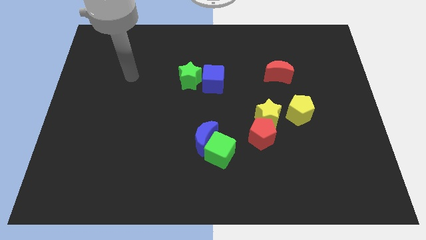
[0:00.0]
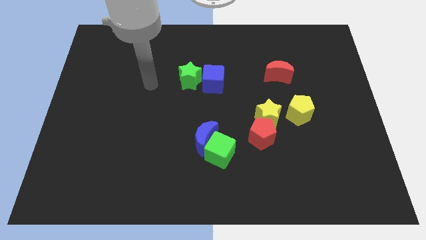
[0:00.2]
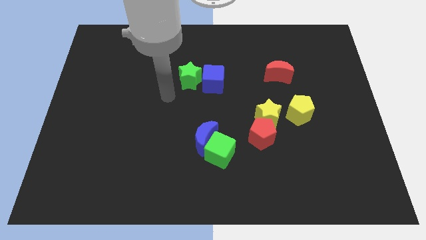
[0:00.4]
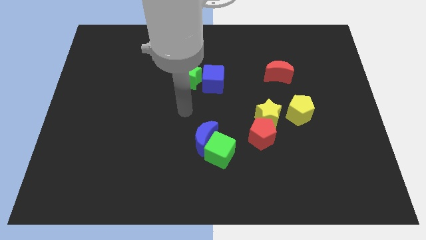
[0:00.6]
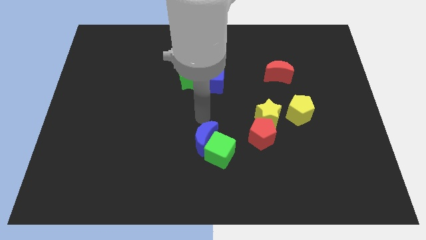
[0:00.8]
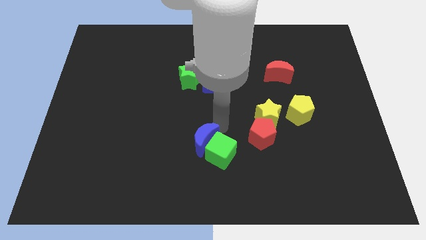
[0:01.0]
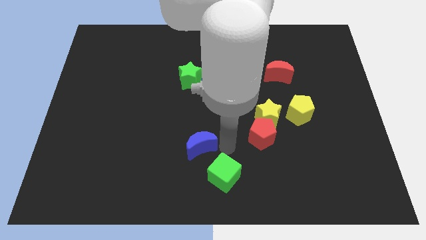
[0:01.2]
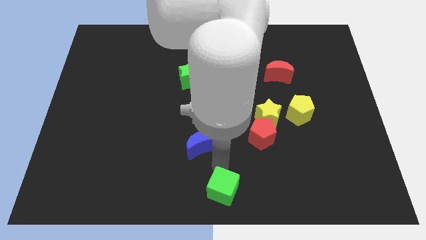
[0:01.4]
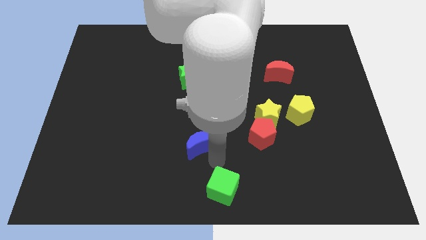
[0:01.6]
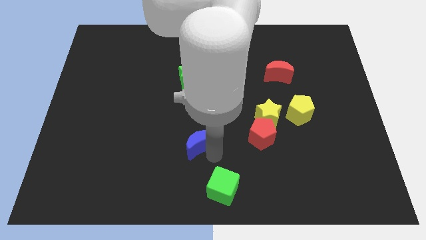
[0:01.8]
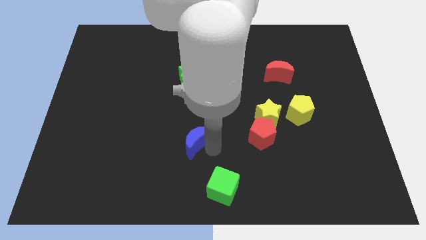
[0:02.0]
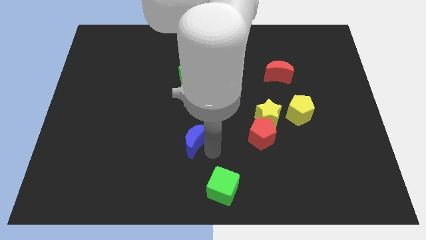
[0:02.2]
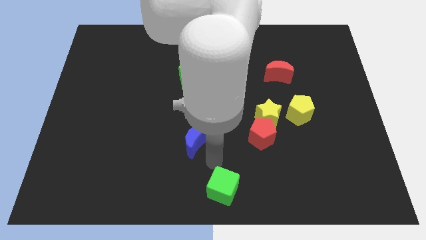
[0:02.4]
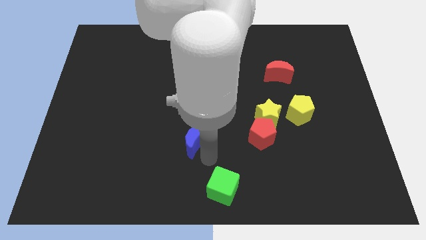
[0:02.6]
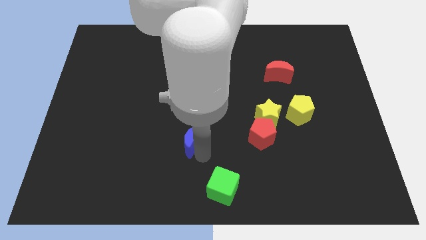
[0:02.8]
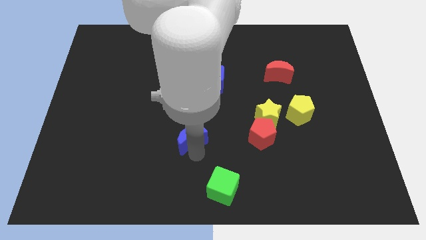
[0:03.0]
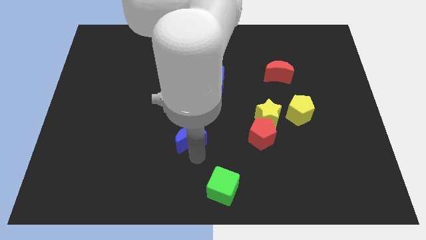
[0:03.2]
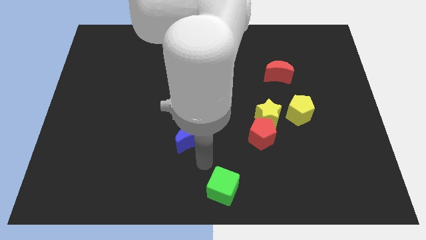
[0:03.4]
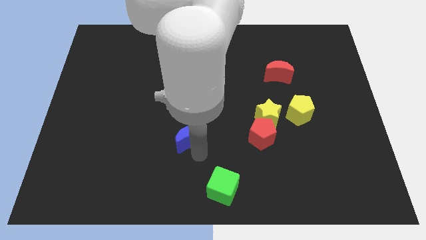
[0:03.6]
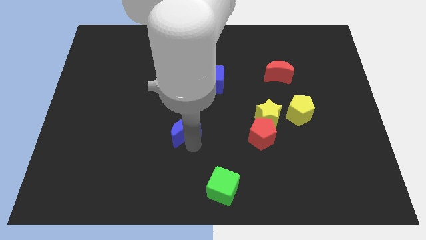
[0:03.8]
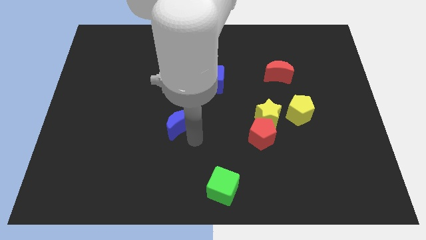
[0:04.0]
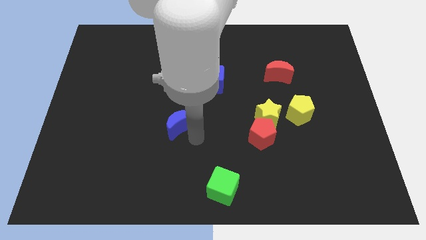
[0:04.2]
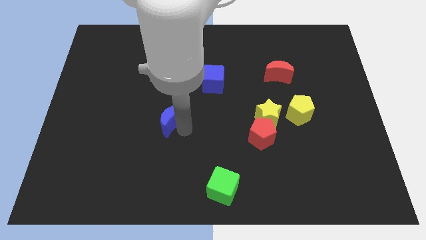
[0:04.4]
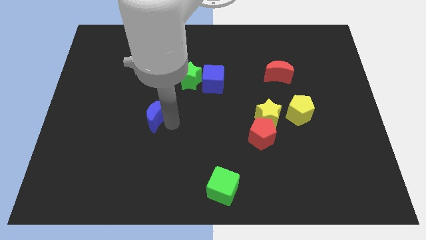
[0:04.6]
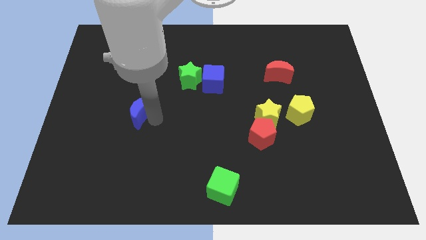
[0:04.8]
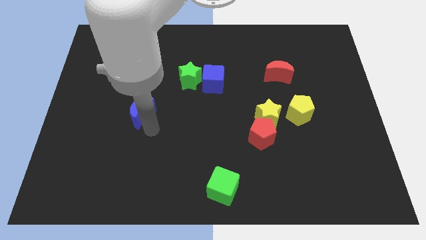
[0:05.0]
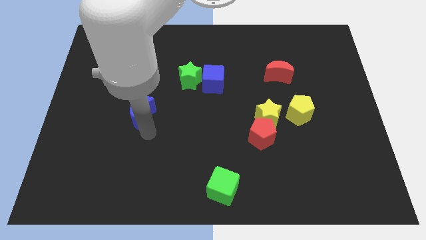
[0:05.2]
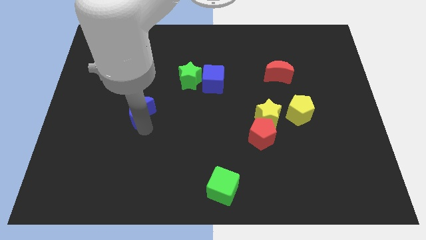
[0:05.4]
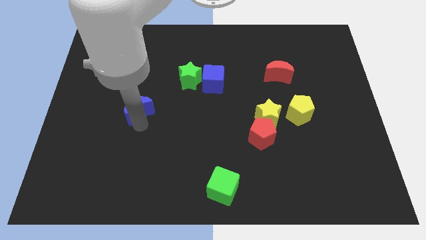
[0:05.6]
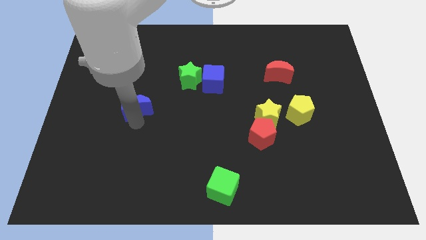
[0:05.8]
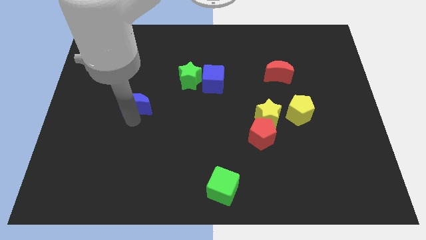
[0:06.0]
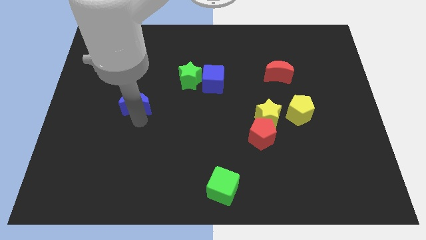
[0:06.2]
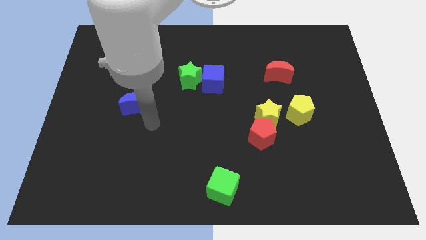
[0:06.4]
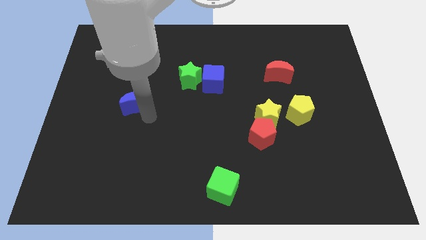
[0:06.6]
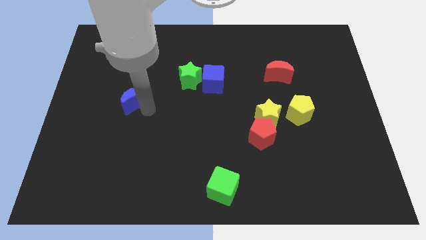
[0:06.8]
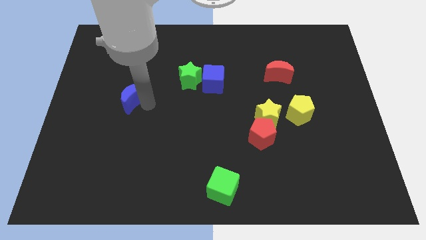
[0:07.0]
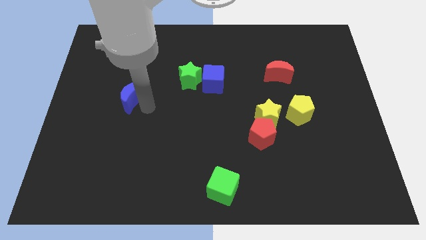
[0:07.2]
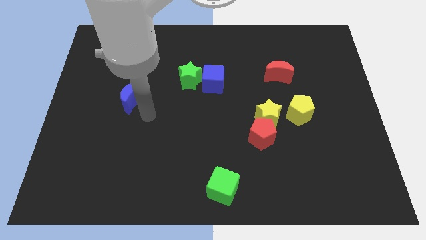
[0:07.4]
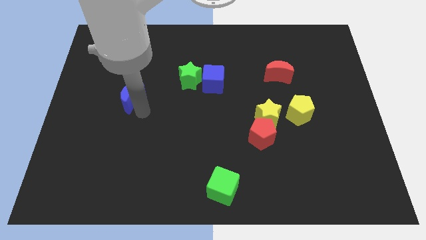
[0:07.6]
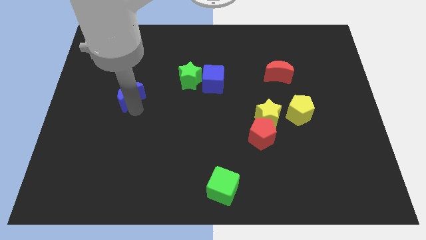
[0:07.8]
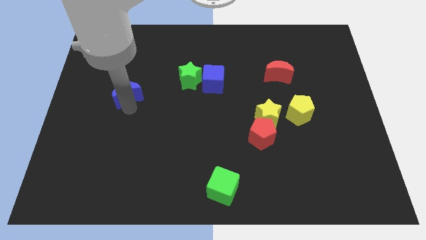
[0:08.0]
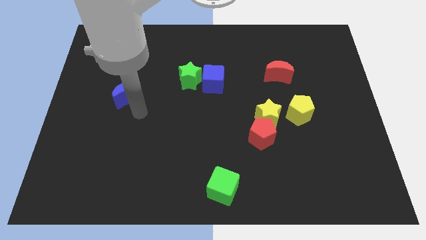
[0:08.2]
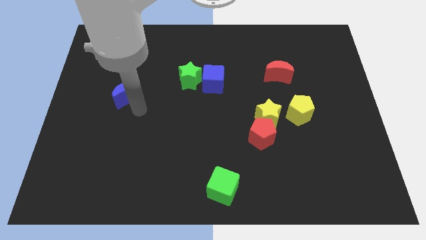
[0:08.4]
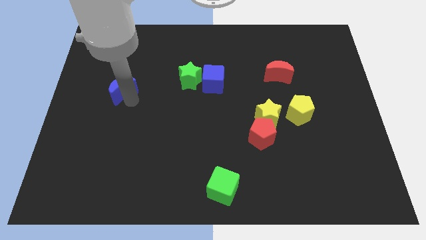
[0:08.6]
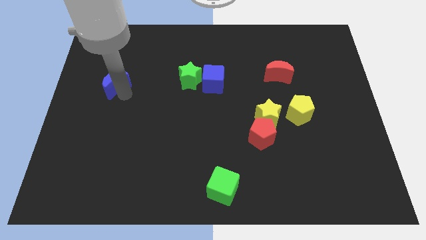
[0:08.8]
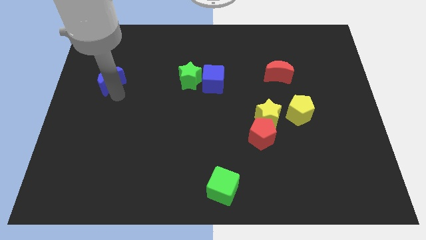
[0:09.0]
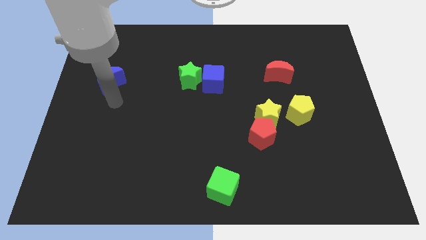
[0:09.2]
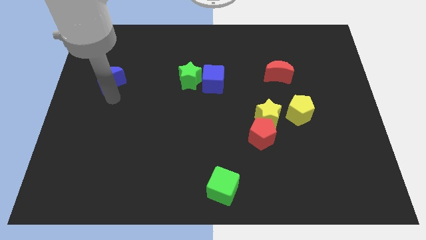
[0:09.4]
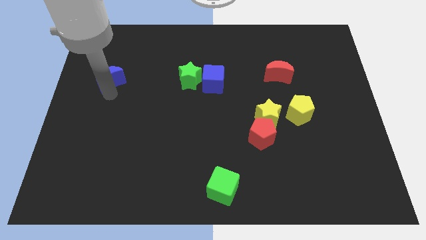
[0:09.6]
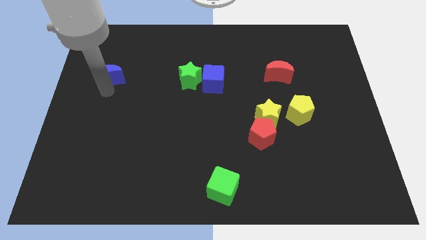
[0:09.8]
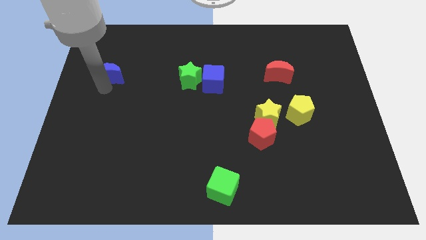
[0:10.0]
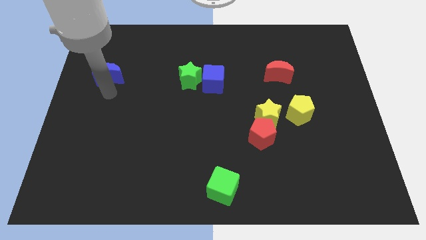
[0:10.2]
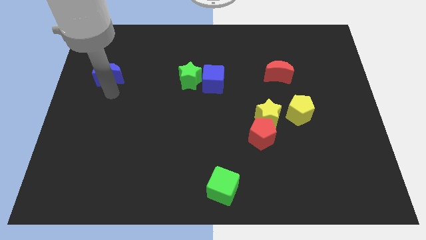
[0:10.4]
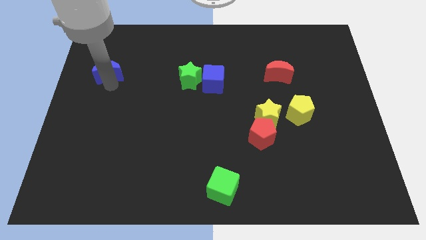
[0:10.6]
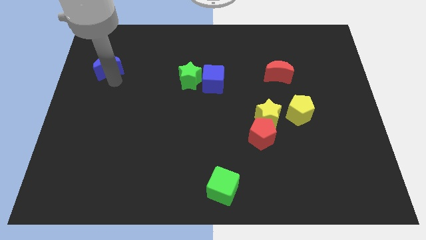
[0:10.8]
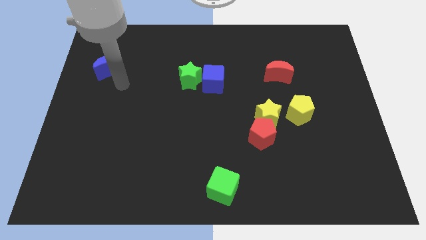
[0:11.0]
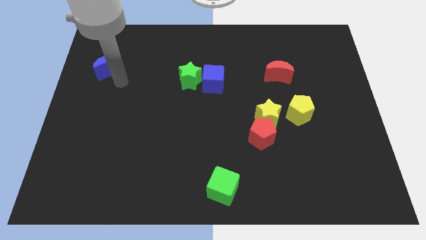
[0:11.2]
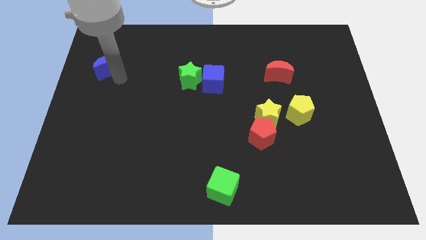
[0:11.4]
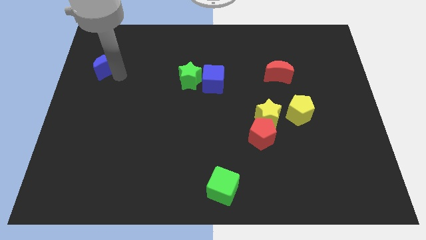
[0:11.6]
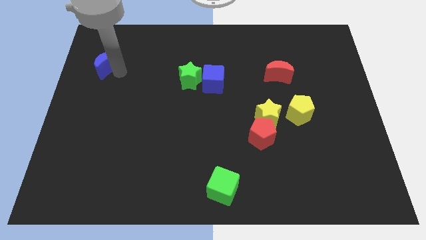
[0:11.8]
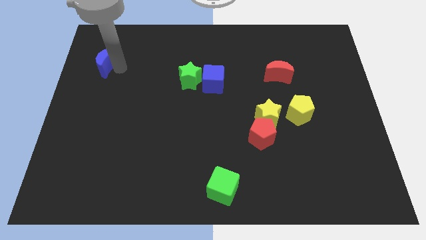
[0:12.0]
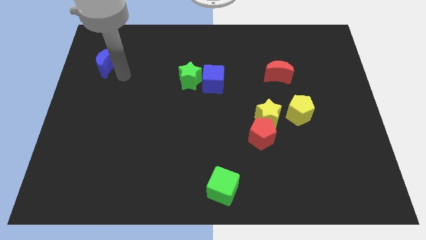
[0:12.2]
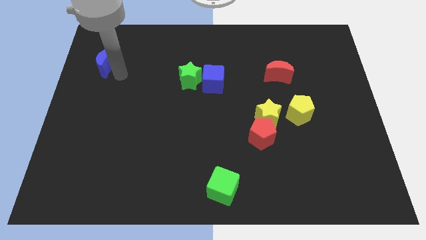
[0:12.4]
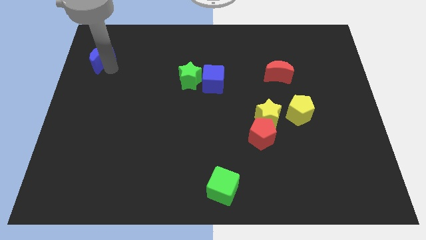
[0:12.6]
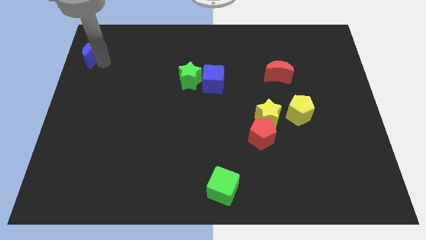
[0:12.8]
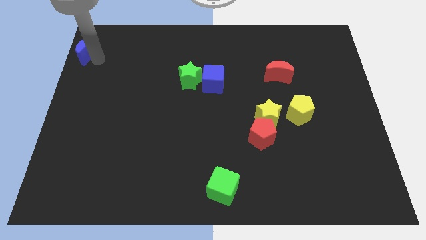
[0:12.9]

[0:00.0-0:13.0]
push the blue moon to the top left of the board
